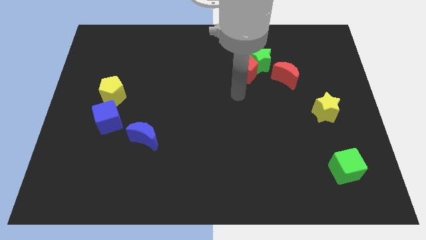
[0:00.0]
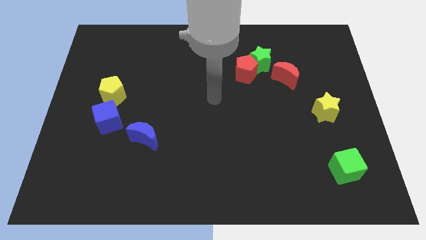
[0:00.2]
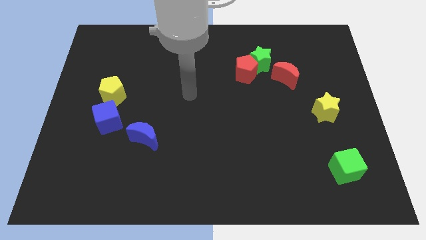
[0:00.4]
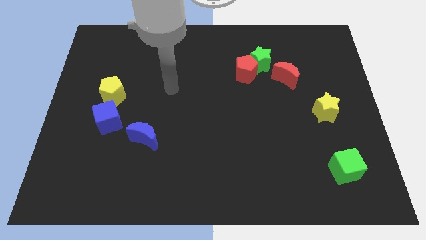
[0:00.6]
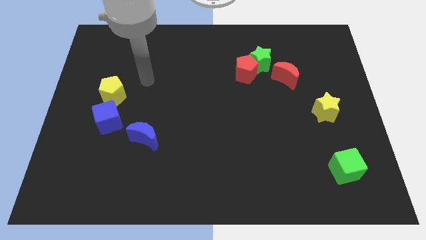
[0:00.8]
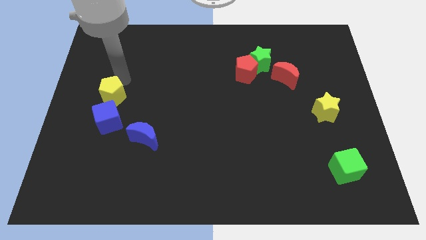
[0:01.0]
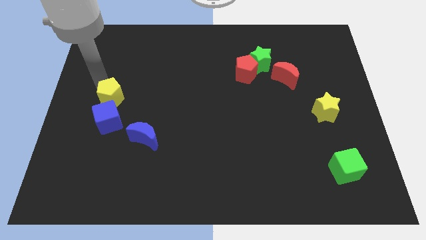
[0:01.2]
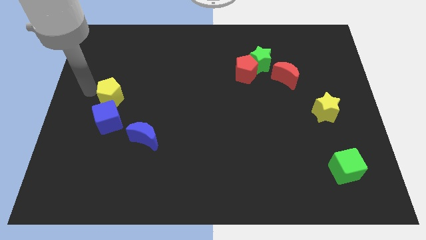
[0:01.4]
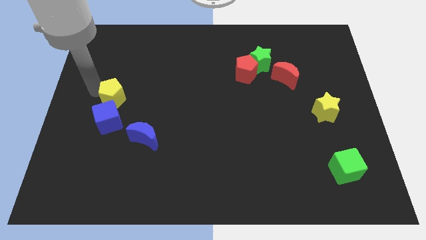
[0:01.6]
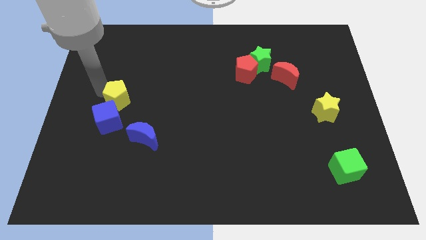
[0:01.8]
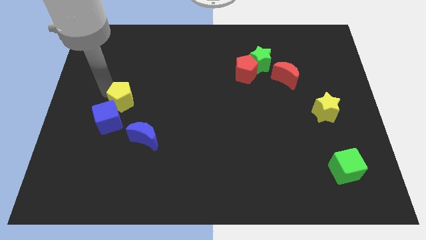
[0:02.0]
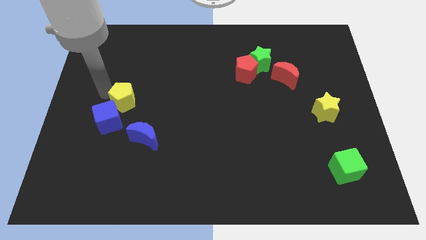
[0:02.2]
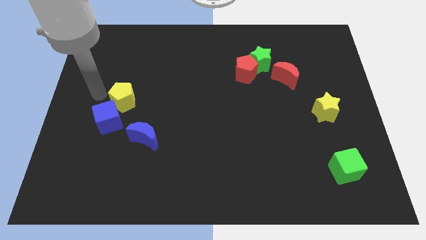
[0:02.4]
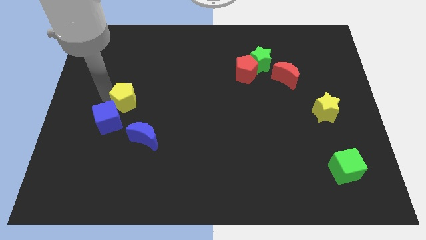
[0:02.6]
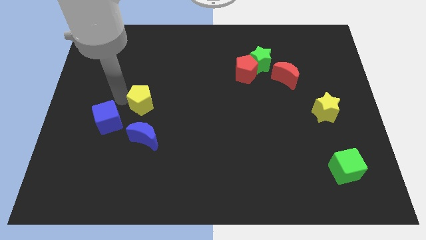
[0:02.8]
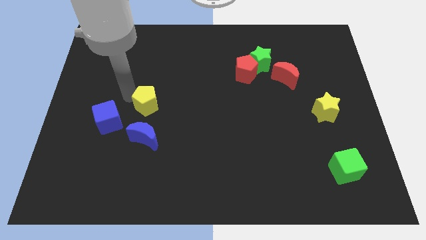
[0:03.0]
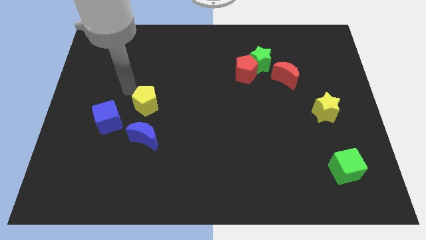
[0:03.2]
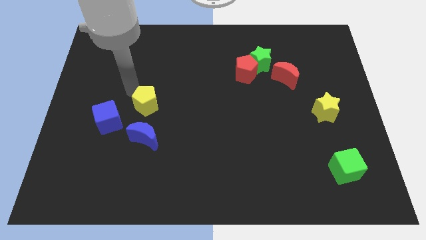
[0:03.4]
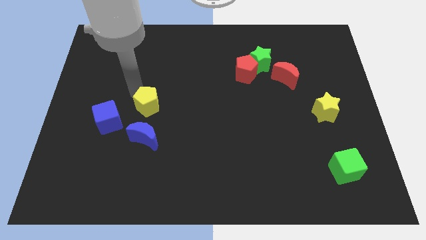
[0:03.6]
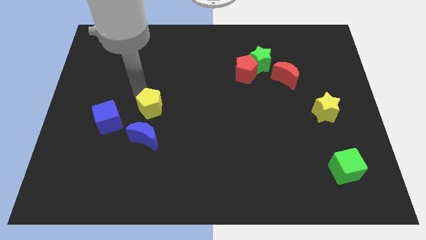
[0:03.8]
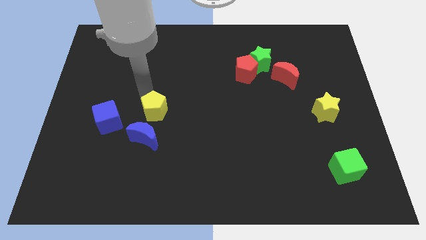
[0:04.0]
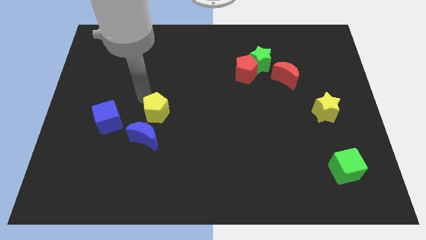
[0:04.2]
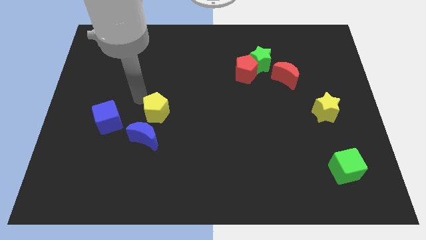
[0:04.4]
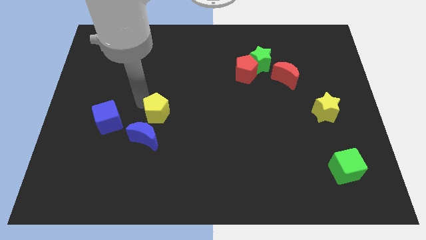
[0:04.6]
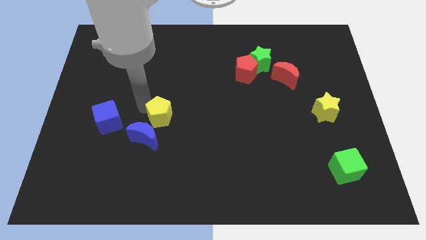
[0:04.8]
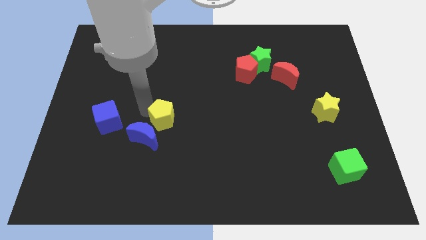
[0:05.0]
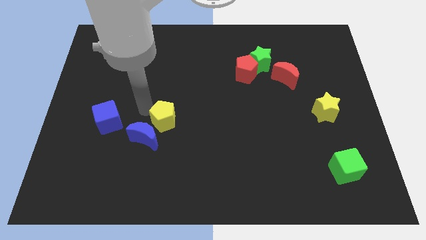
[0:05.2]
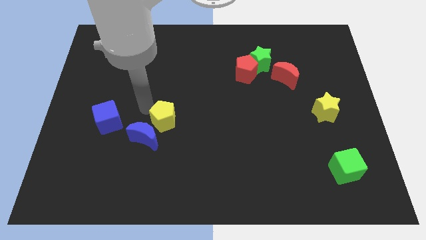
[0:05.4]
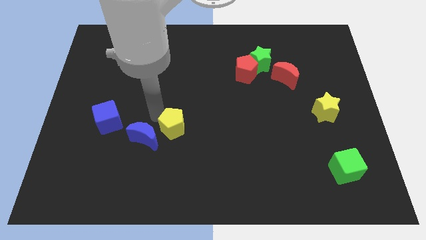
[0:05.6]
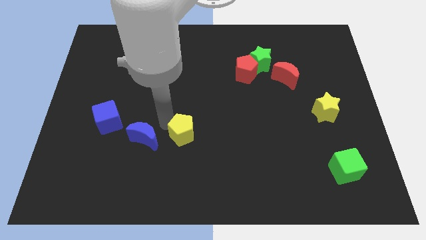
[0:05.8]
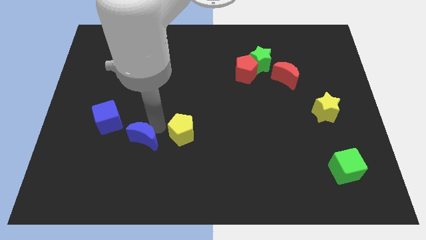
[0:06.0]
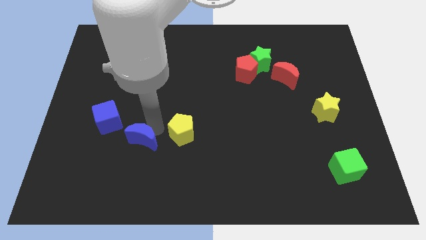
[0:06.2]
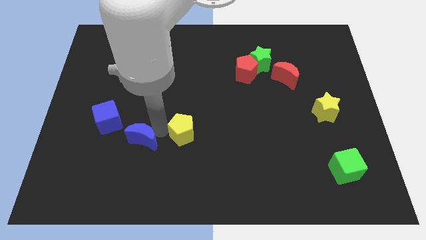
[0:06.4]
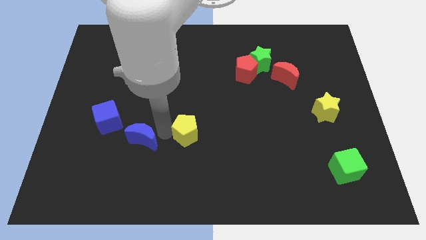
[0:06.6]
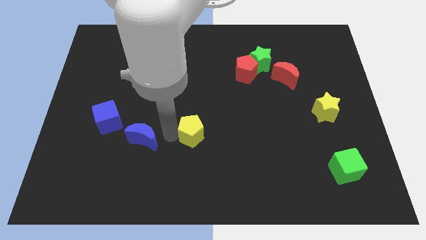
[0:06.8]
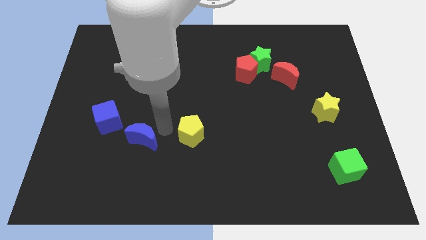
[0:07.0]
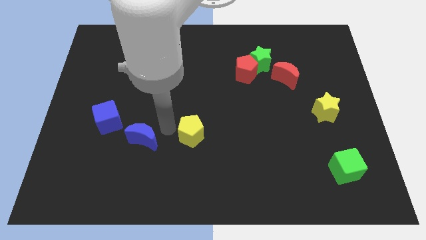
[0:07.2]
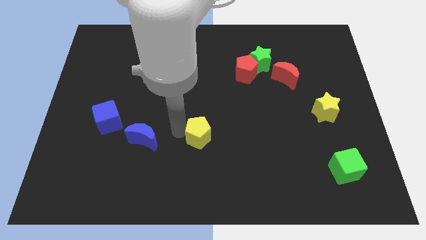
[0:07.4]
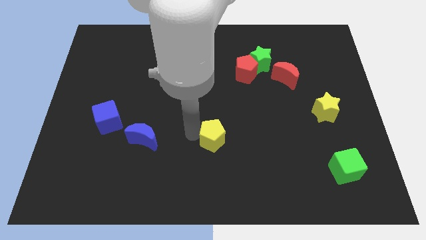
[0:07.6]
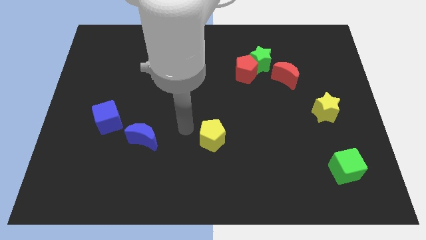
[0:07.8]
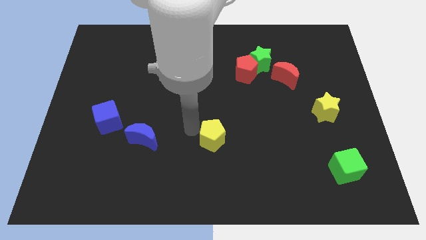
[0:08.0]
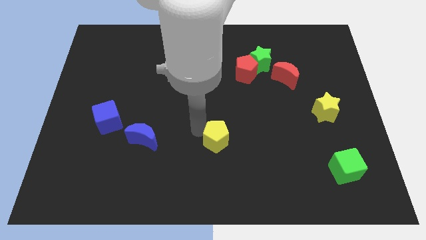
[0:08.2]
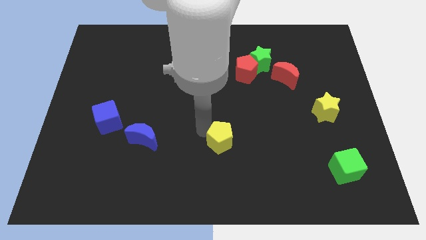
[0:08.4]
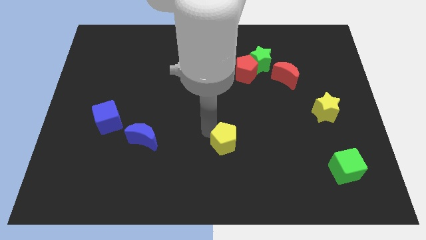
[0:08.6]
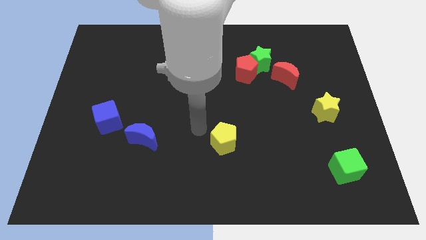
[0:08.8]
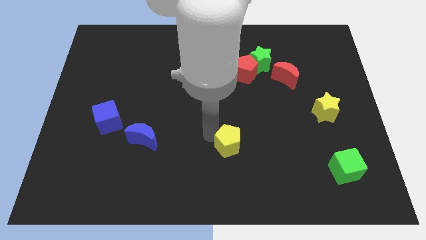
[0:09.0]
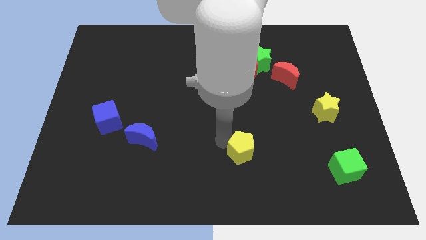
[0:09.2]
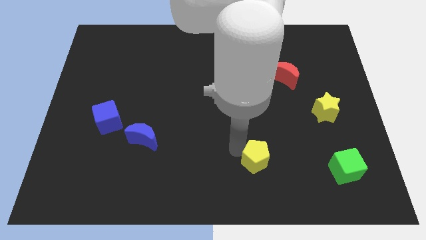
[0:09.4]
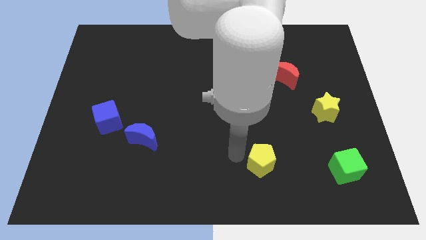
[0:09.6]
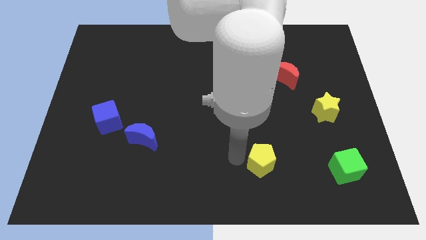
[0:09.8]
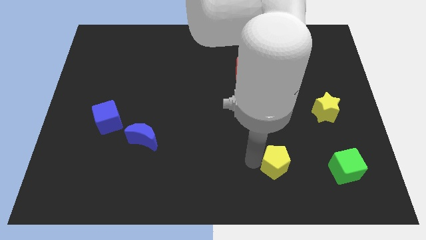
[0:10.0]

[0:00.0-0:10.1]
move the yellow pentagon just left of the green cube

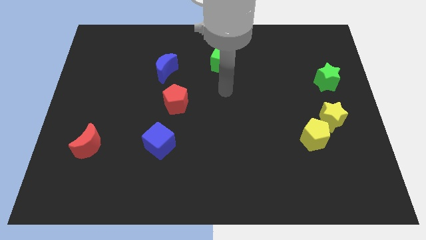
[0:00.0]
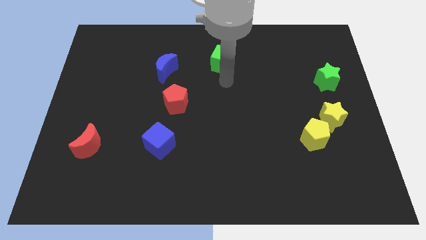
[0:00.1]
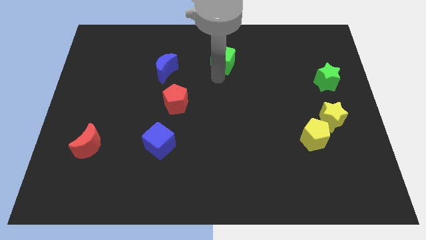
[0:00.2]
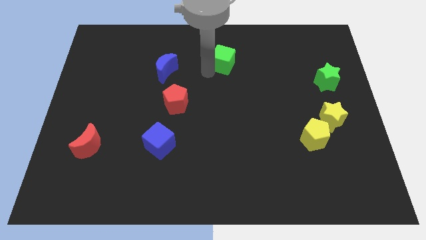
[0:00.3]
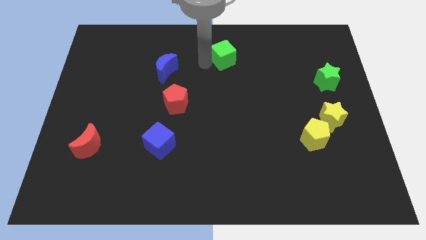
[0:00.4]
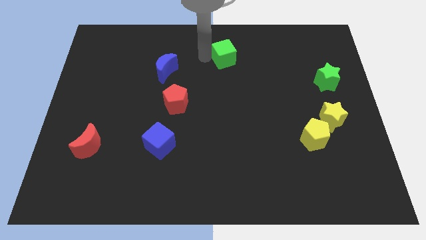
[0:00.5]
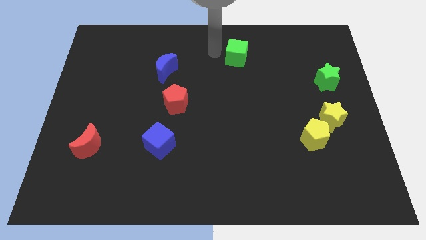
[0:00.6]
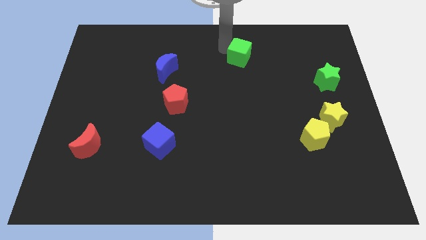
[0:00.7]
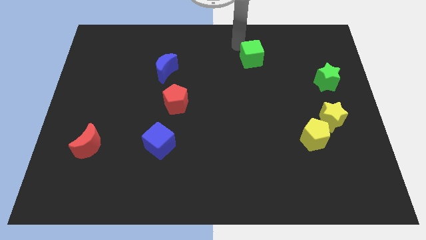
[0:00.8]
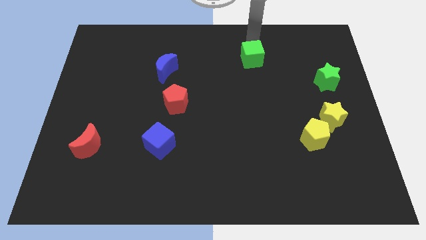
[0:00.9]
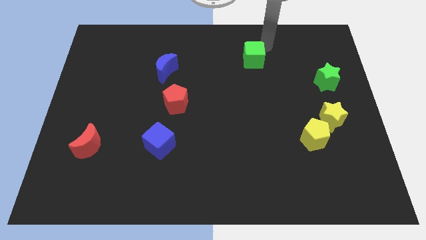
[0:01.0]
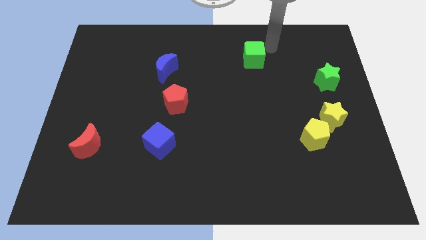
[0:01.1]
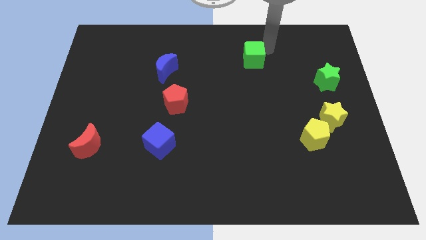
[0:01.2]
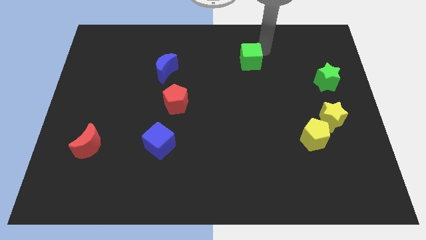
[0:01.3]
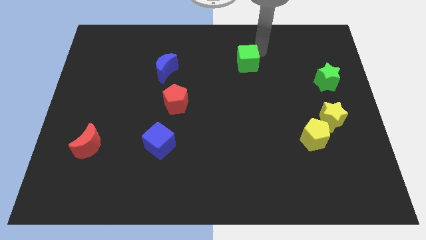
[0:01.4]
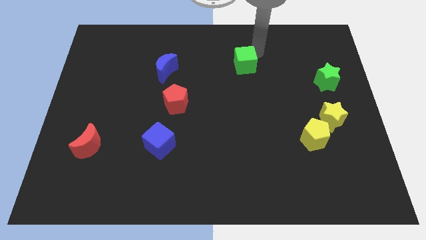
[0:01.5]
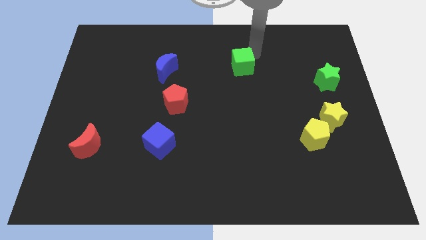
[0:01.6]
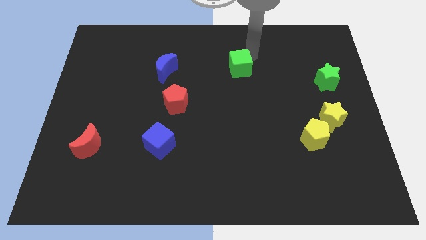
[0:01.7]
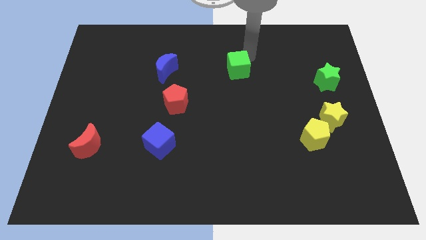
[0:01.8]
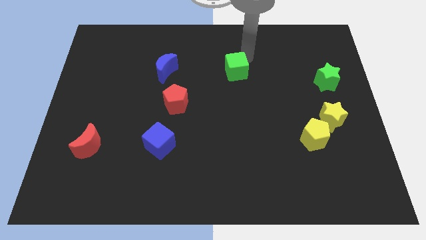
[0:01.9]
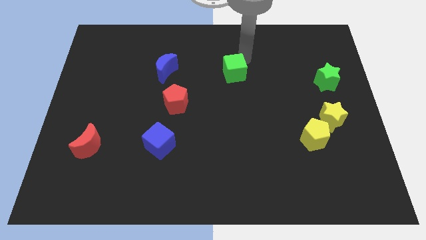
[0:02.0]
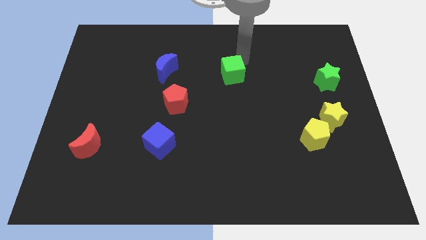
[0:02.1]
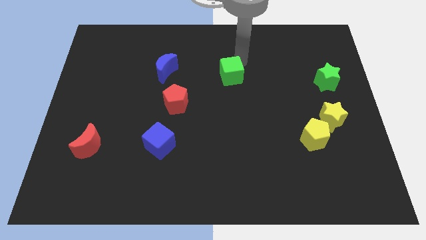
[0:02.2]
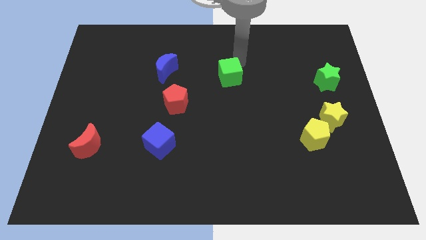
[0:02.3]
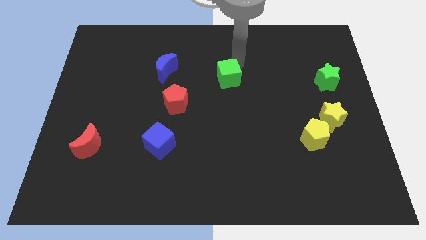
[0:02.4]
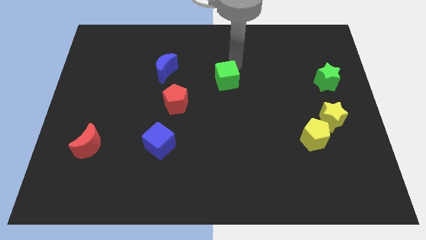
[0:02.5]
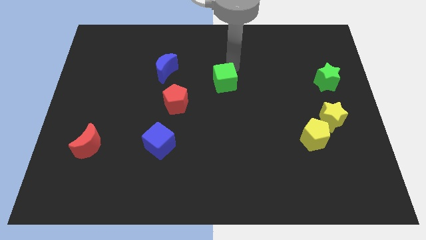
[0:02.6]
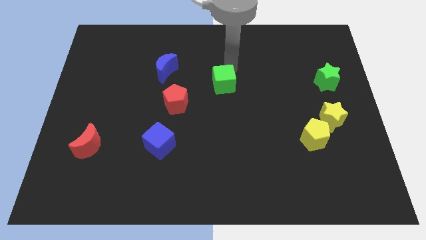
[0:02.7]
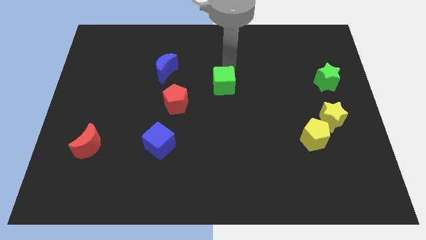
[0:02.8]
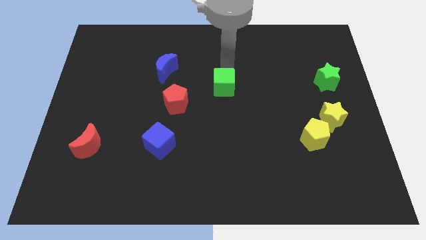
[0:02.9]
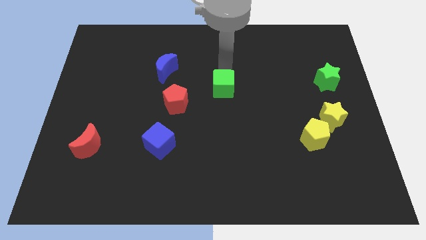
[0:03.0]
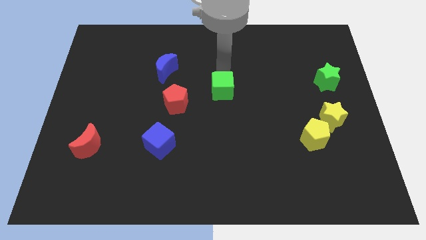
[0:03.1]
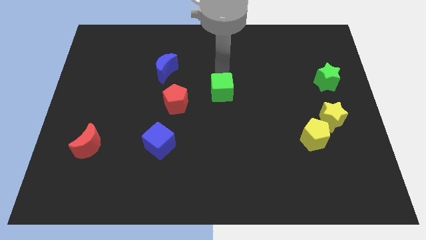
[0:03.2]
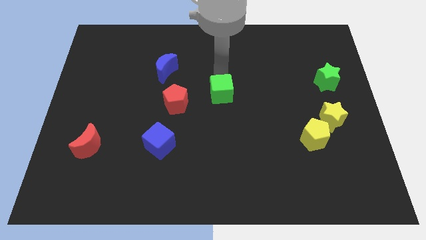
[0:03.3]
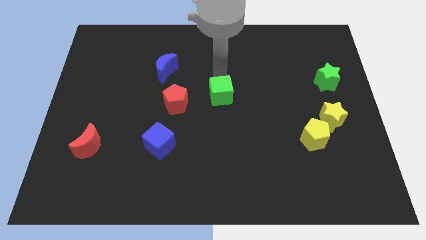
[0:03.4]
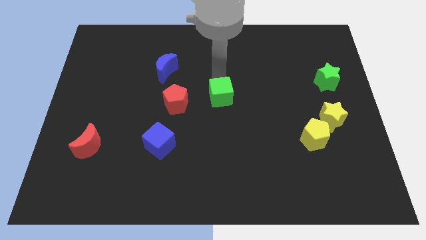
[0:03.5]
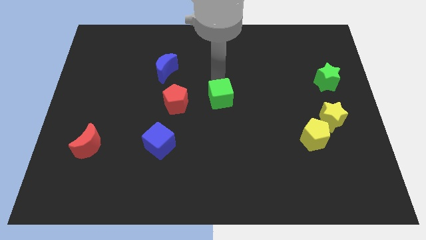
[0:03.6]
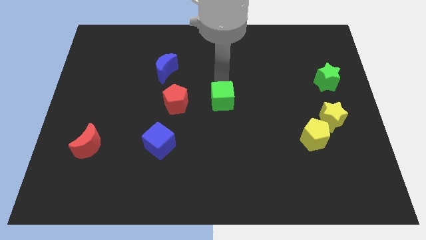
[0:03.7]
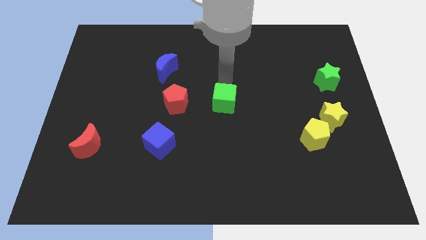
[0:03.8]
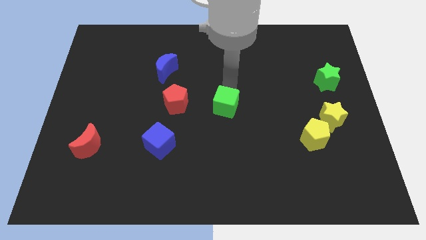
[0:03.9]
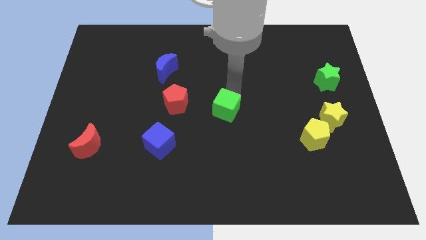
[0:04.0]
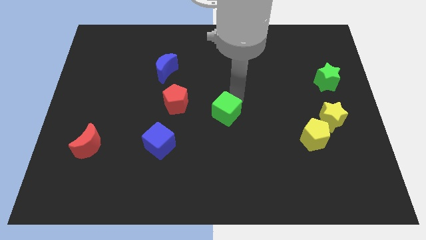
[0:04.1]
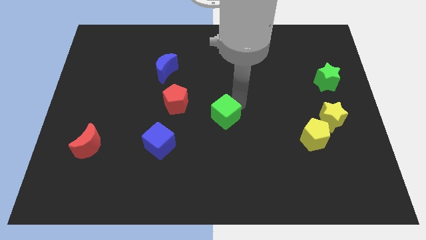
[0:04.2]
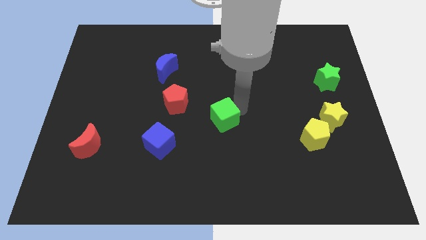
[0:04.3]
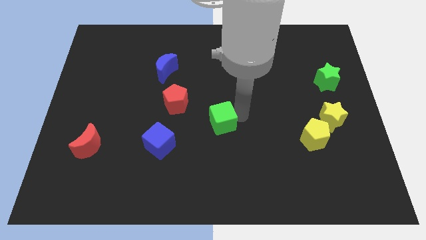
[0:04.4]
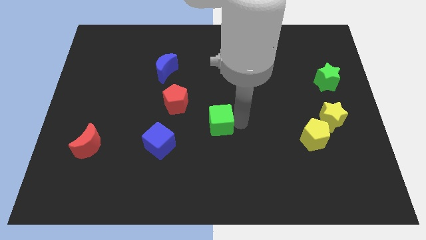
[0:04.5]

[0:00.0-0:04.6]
slide the green cube diagonally down and to the right of the red pentagon
